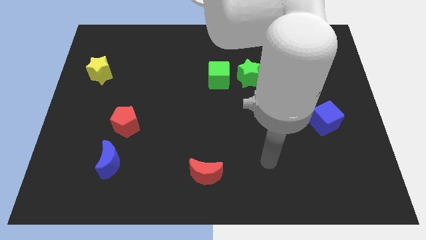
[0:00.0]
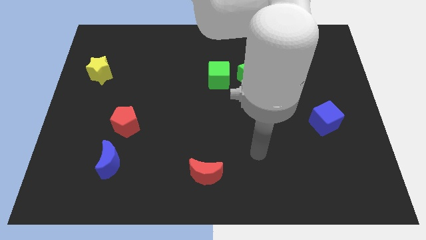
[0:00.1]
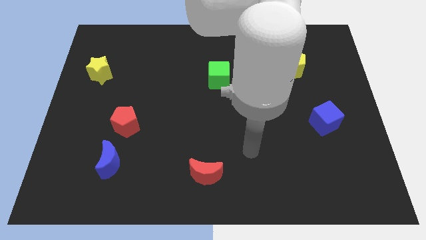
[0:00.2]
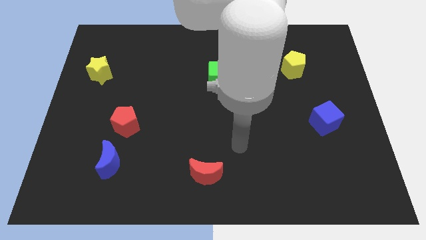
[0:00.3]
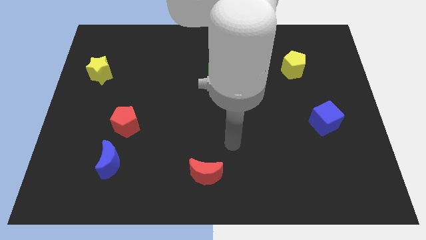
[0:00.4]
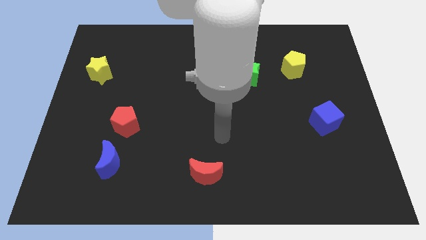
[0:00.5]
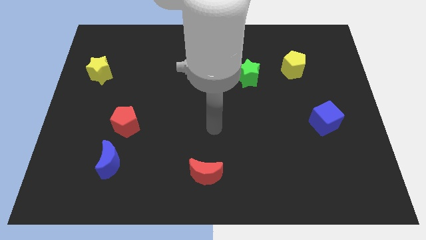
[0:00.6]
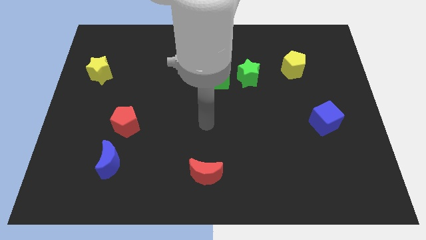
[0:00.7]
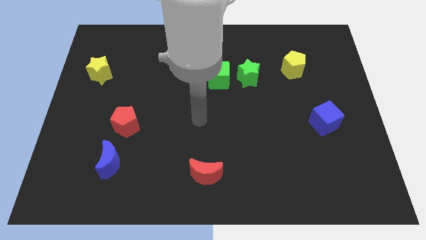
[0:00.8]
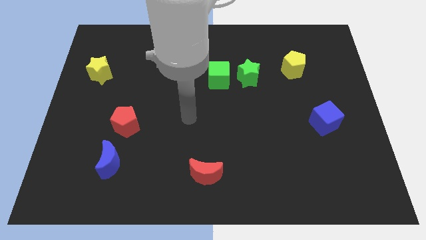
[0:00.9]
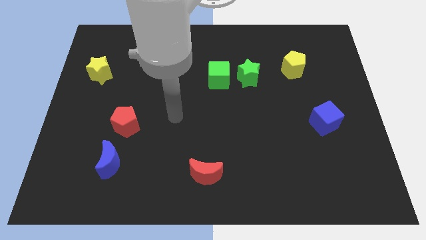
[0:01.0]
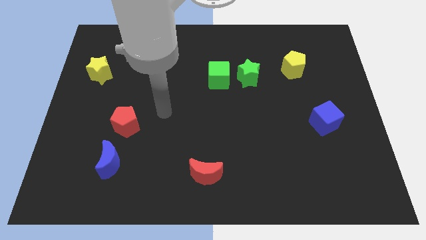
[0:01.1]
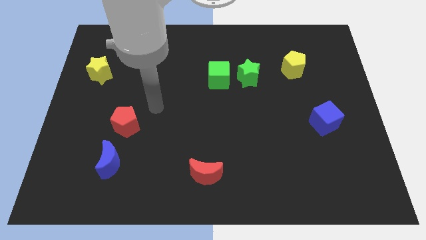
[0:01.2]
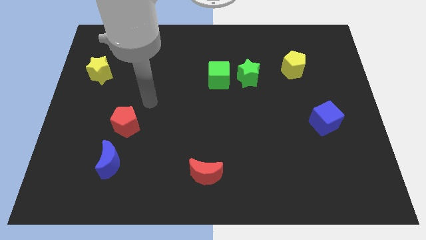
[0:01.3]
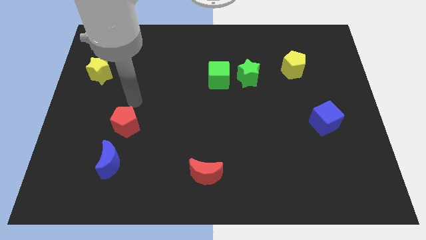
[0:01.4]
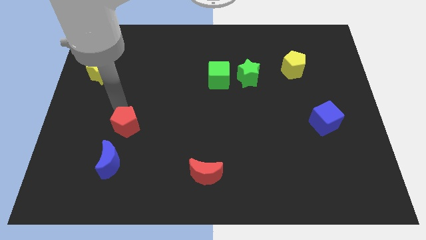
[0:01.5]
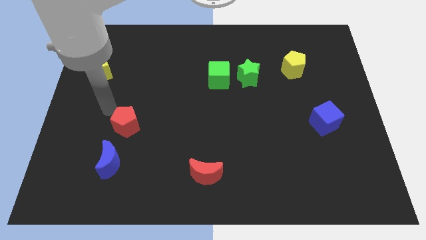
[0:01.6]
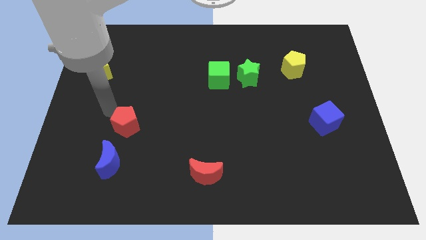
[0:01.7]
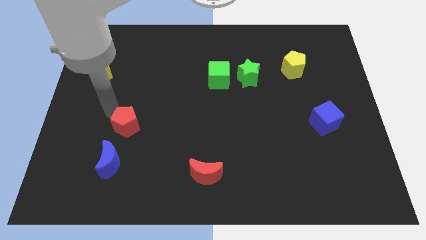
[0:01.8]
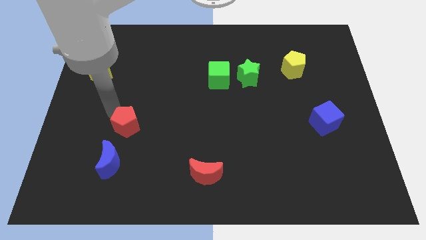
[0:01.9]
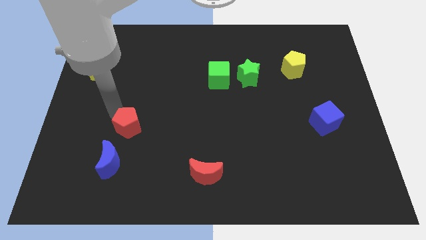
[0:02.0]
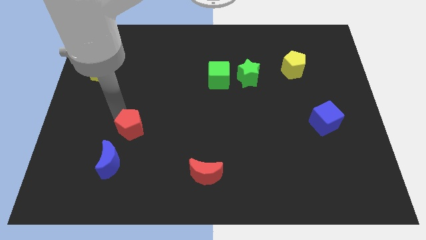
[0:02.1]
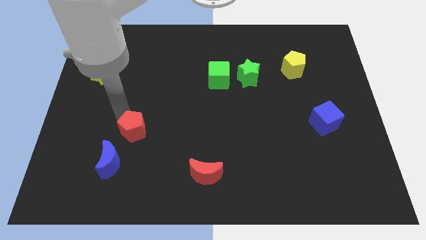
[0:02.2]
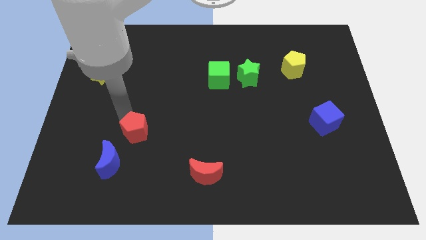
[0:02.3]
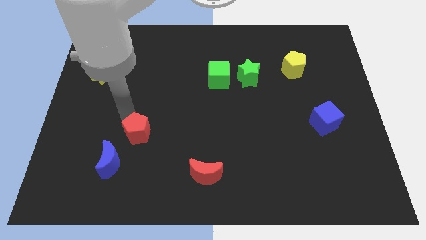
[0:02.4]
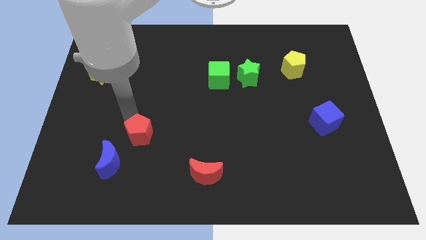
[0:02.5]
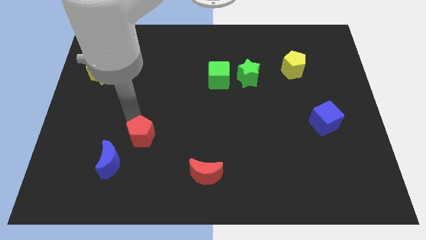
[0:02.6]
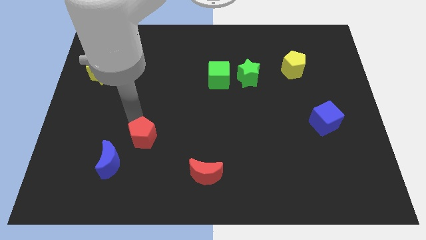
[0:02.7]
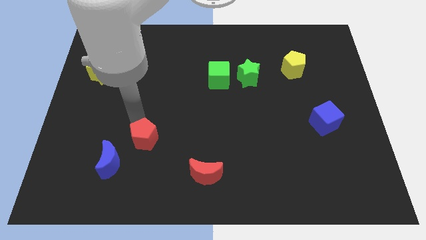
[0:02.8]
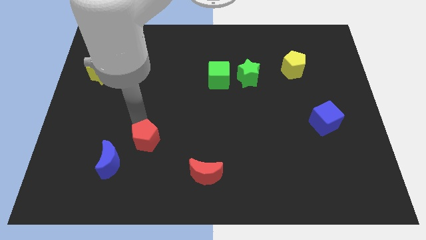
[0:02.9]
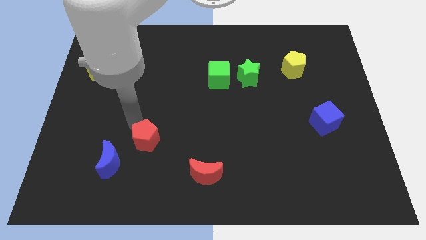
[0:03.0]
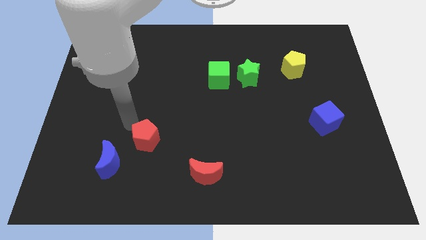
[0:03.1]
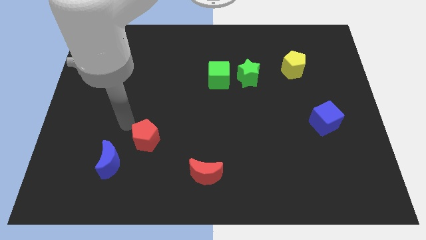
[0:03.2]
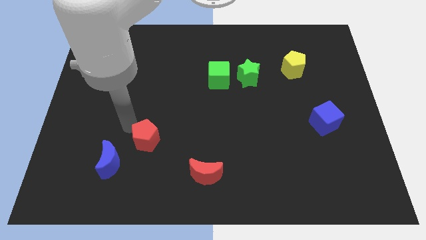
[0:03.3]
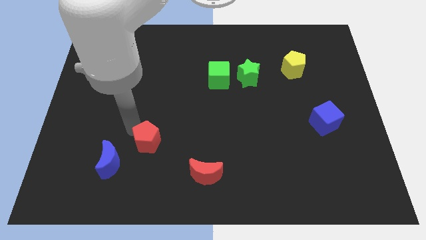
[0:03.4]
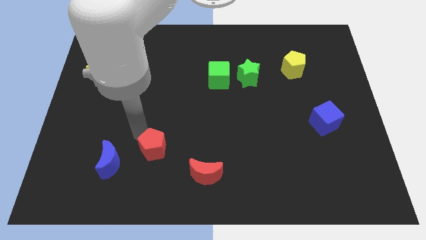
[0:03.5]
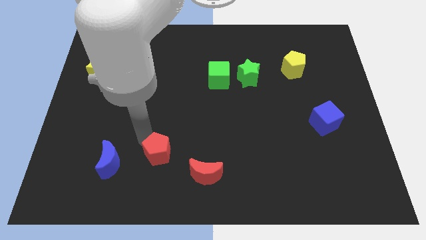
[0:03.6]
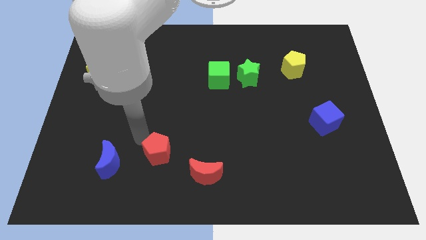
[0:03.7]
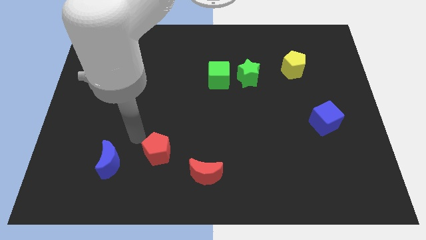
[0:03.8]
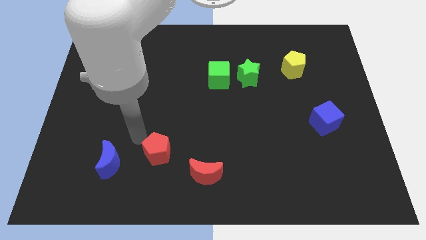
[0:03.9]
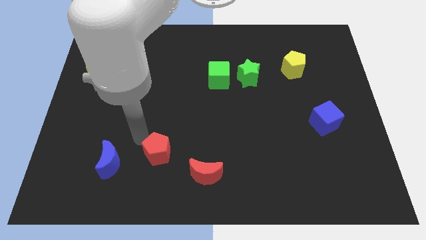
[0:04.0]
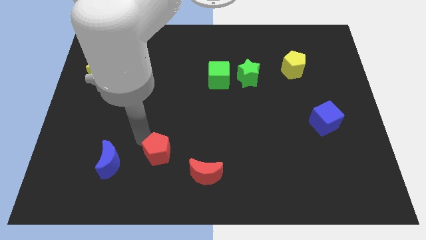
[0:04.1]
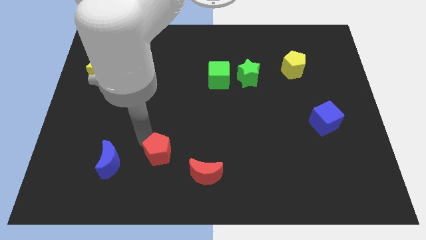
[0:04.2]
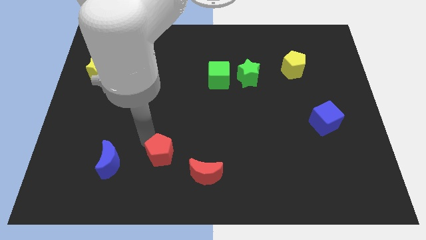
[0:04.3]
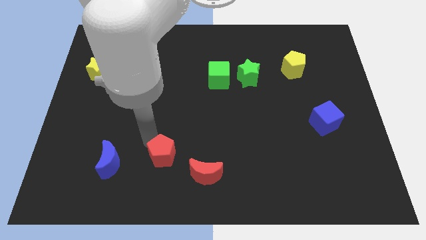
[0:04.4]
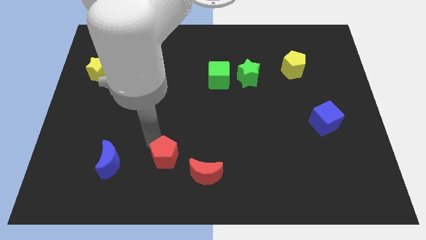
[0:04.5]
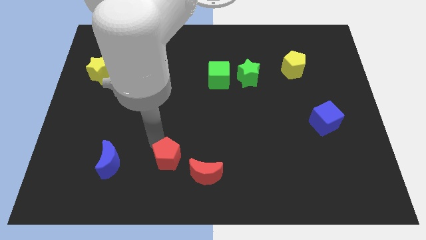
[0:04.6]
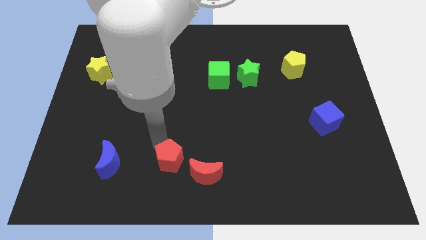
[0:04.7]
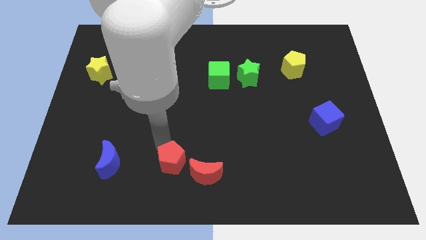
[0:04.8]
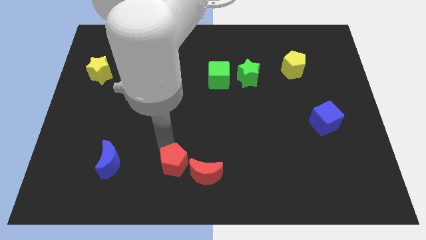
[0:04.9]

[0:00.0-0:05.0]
slide the red pentagon to the bottom side

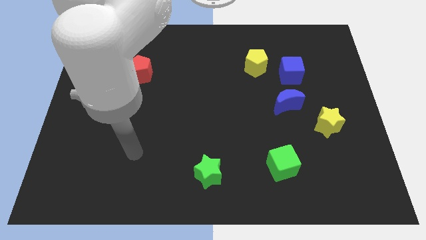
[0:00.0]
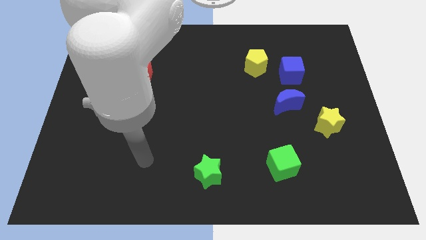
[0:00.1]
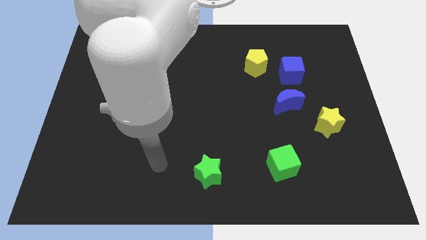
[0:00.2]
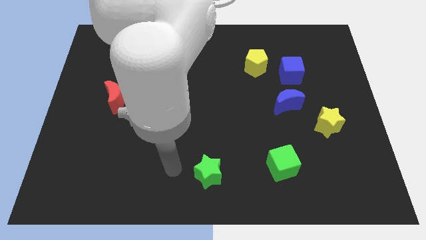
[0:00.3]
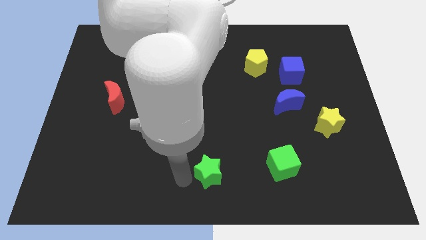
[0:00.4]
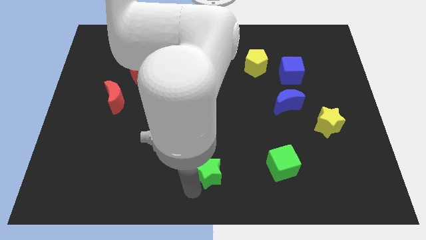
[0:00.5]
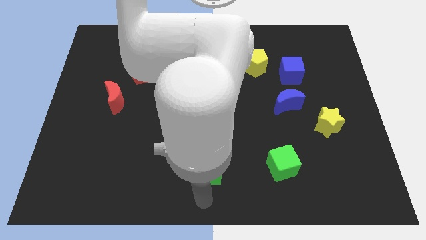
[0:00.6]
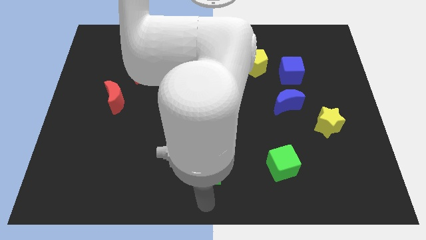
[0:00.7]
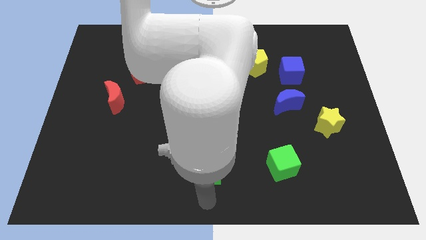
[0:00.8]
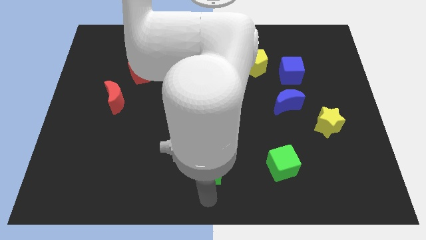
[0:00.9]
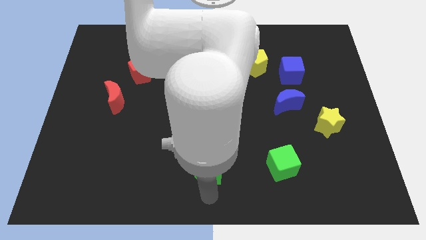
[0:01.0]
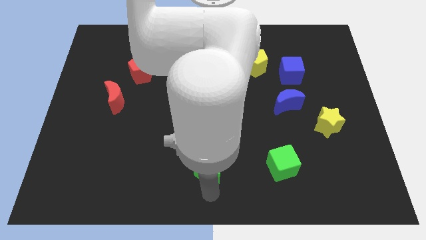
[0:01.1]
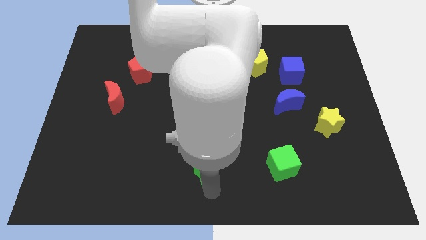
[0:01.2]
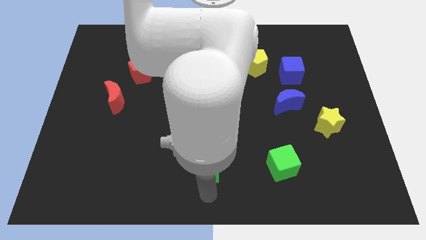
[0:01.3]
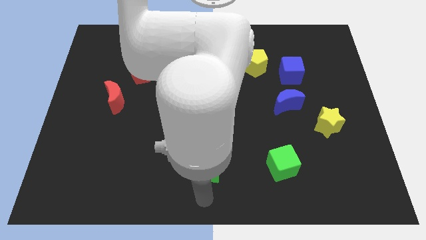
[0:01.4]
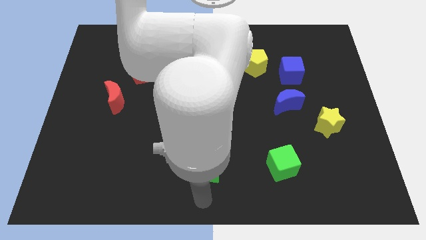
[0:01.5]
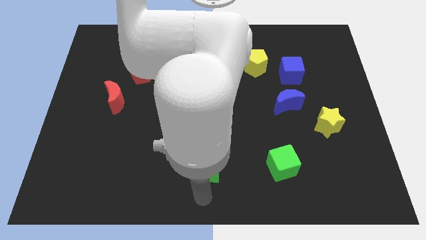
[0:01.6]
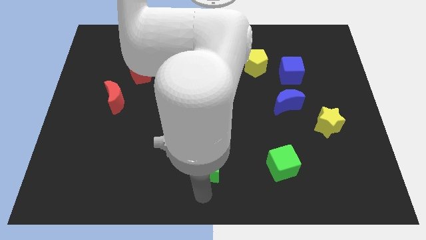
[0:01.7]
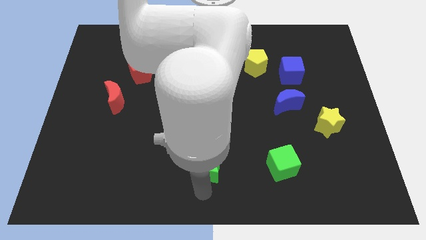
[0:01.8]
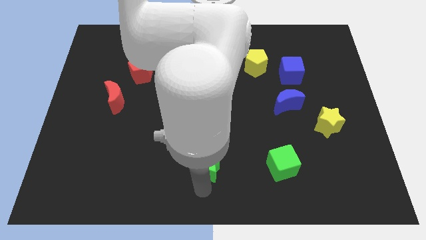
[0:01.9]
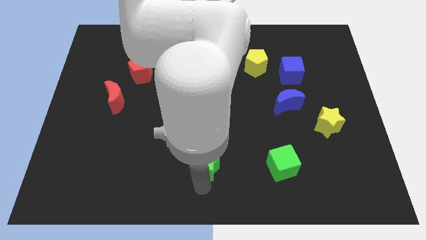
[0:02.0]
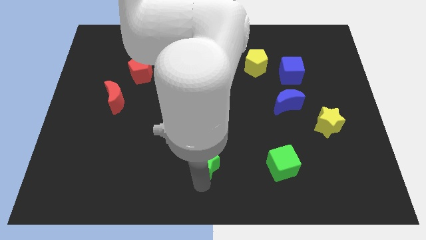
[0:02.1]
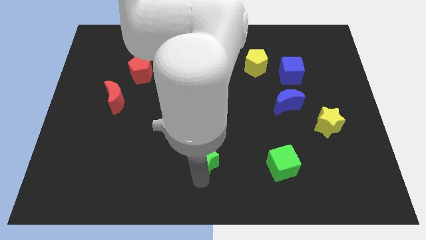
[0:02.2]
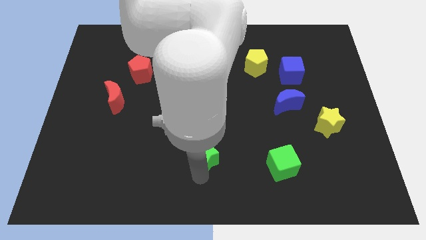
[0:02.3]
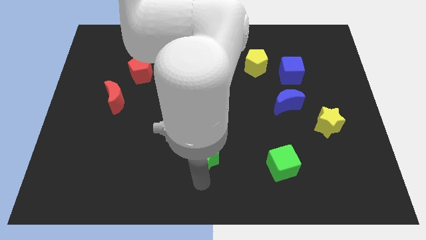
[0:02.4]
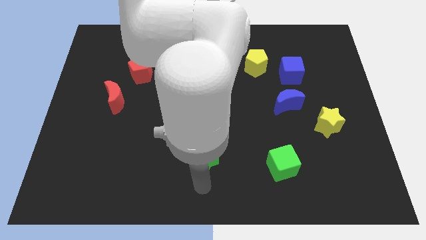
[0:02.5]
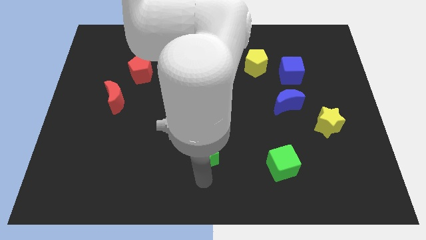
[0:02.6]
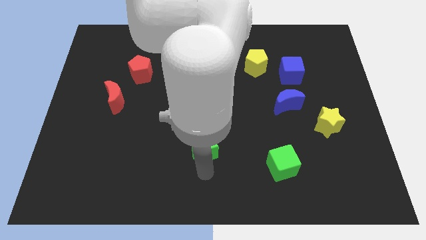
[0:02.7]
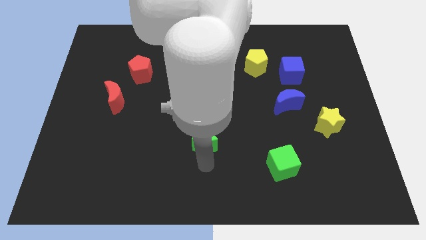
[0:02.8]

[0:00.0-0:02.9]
slide the green star to the center
